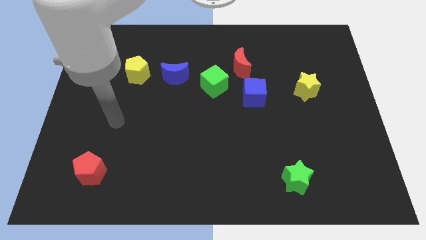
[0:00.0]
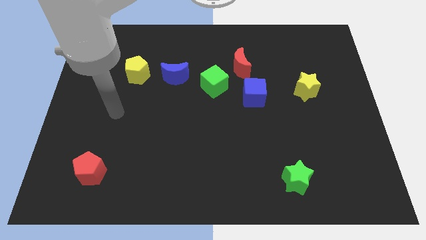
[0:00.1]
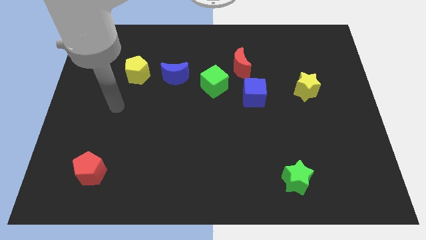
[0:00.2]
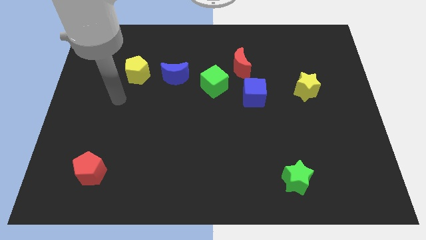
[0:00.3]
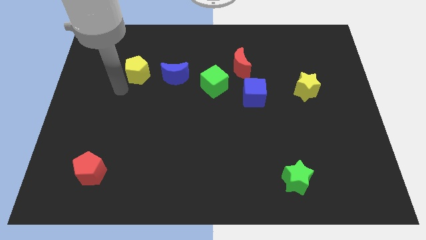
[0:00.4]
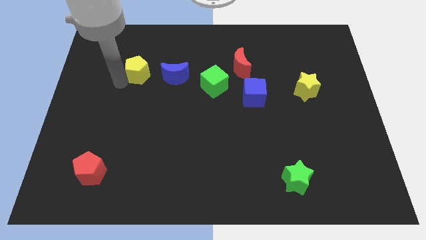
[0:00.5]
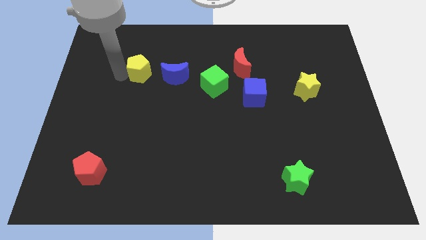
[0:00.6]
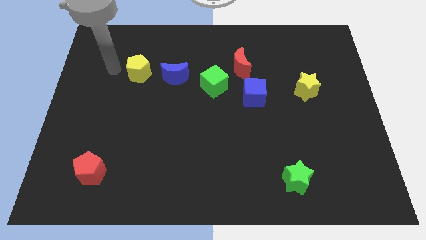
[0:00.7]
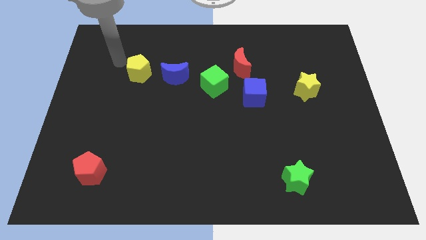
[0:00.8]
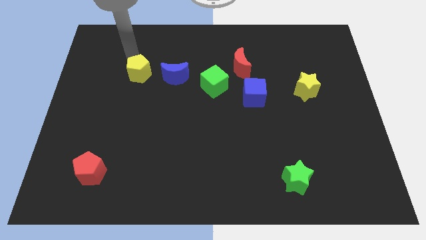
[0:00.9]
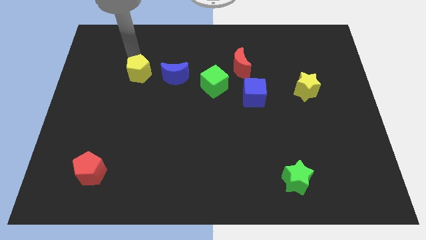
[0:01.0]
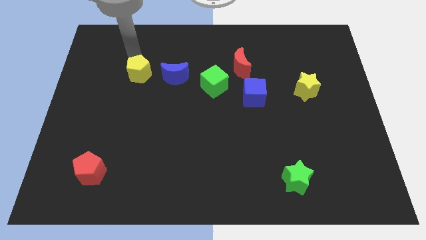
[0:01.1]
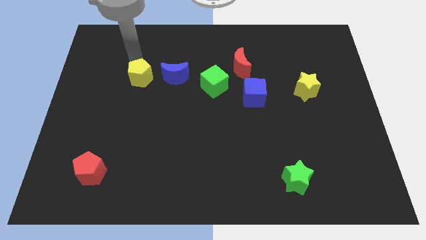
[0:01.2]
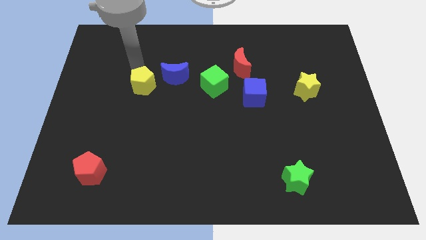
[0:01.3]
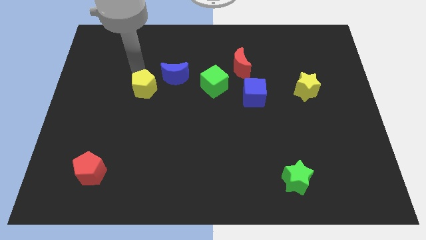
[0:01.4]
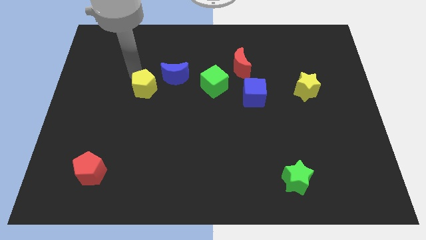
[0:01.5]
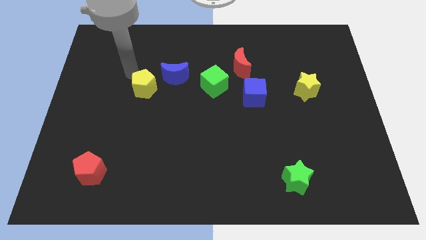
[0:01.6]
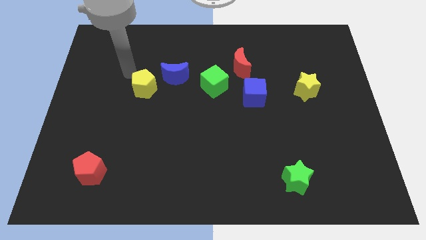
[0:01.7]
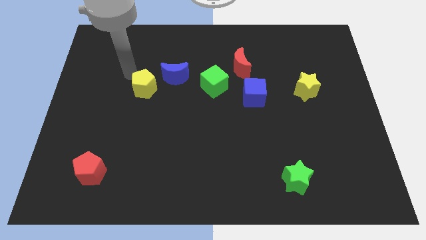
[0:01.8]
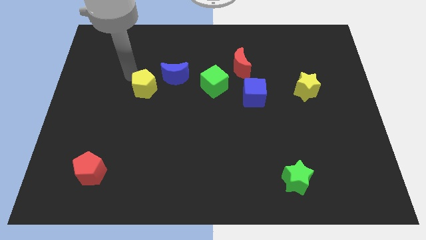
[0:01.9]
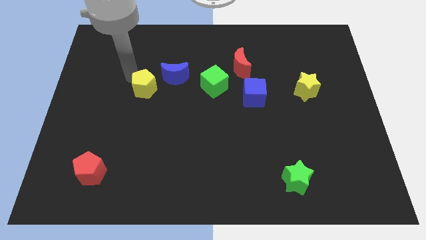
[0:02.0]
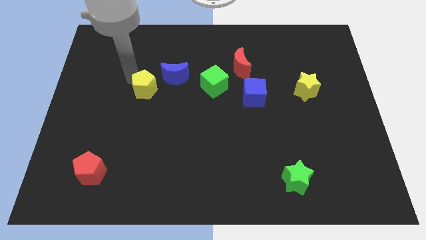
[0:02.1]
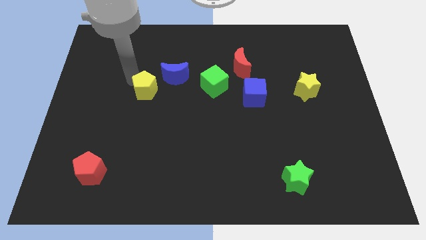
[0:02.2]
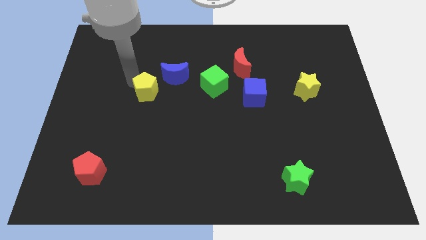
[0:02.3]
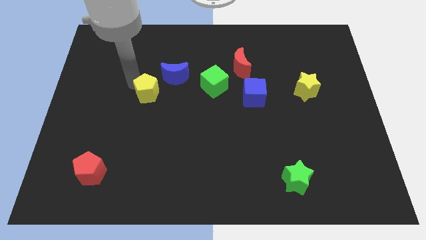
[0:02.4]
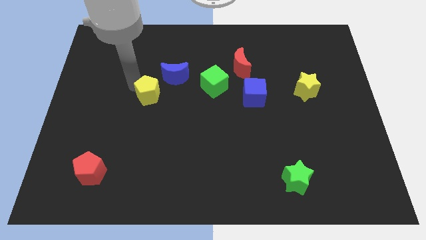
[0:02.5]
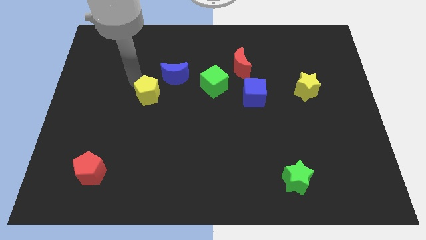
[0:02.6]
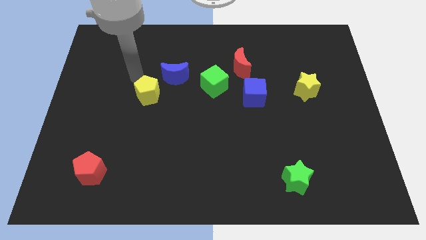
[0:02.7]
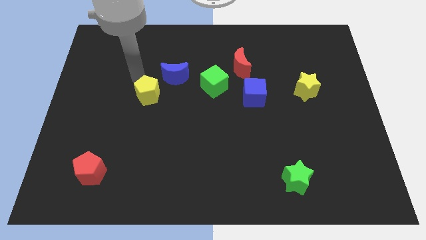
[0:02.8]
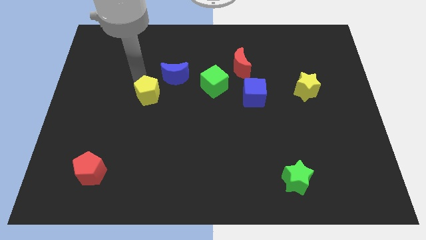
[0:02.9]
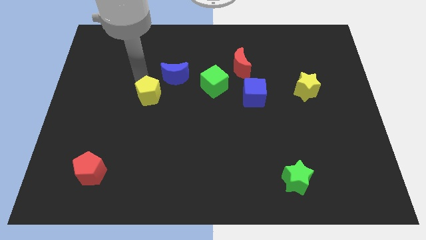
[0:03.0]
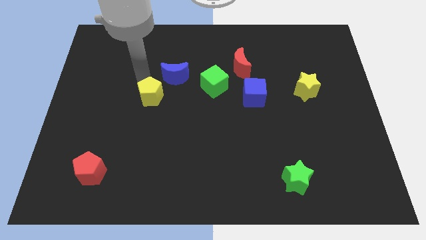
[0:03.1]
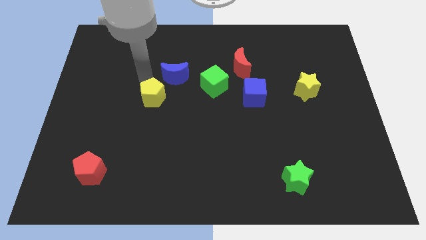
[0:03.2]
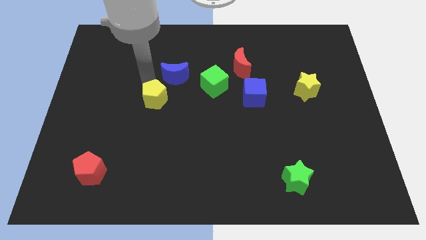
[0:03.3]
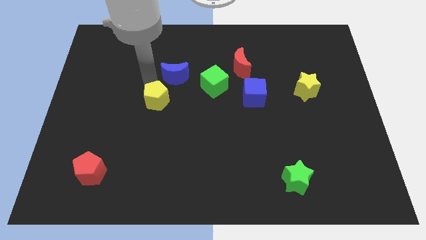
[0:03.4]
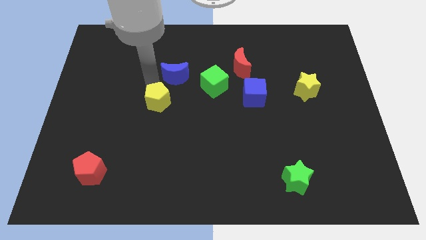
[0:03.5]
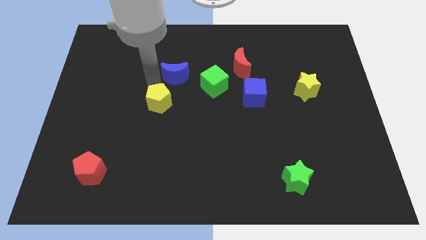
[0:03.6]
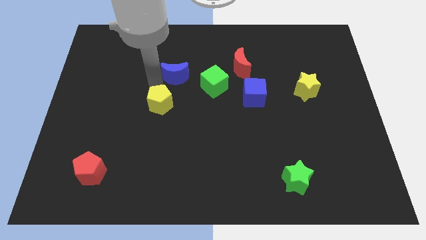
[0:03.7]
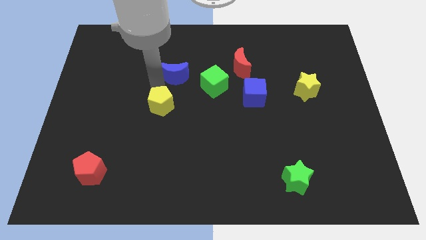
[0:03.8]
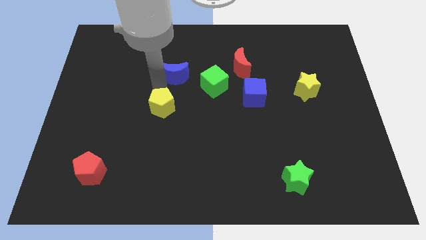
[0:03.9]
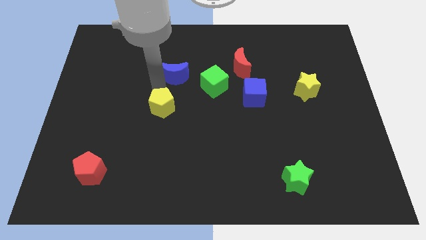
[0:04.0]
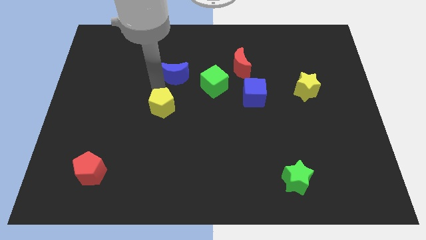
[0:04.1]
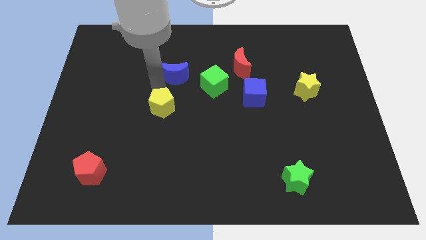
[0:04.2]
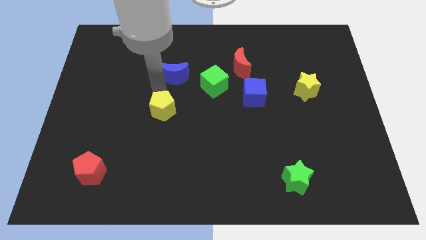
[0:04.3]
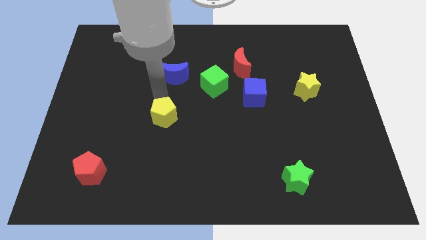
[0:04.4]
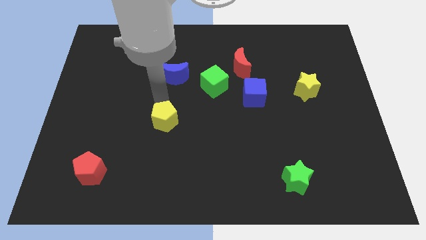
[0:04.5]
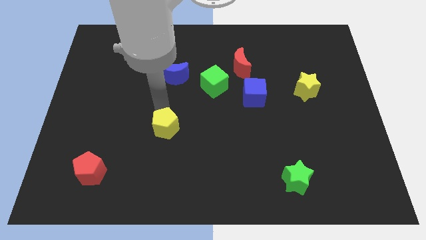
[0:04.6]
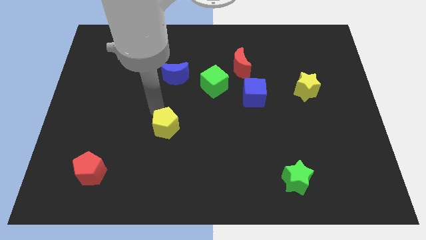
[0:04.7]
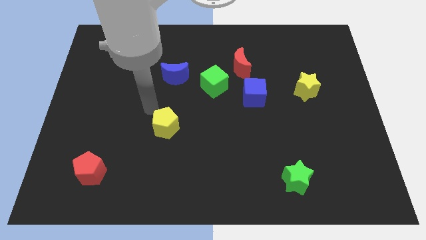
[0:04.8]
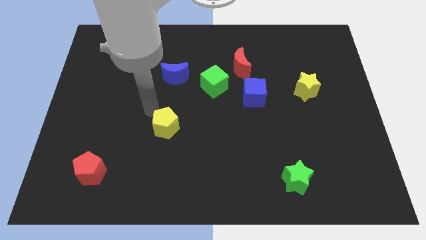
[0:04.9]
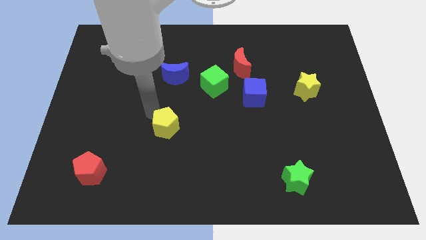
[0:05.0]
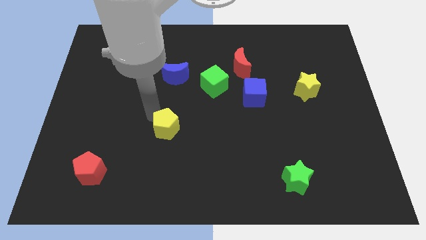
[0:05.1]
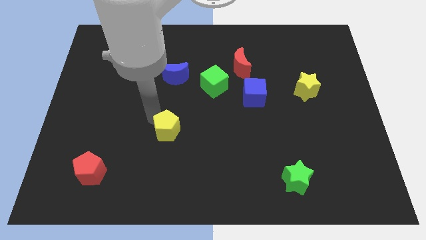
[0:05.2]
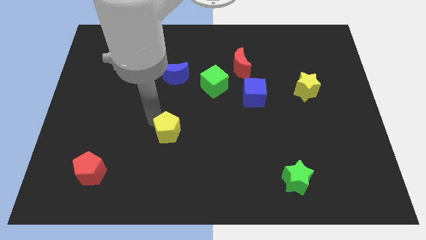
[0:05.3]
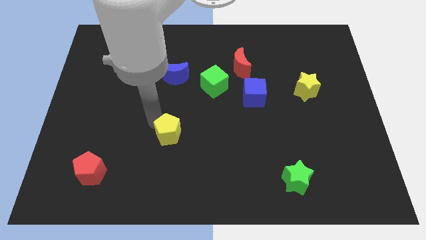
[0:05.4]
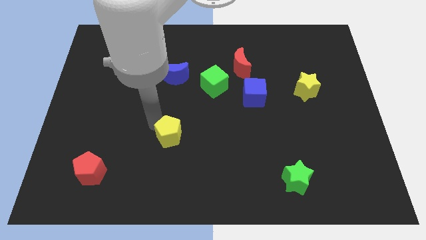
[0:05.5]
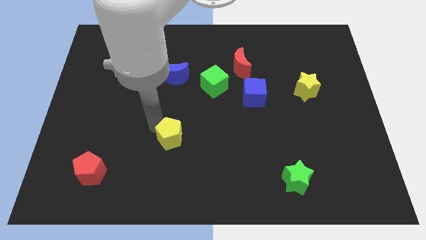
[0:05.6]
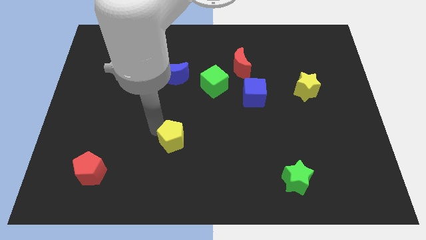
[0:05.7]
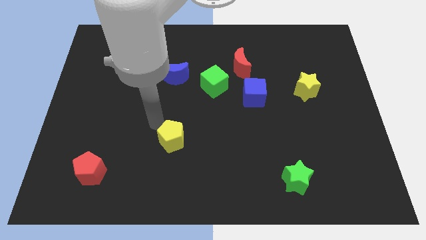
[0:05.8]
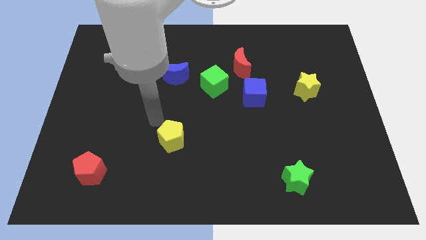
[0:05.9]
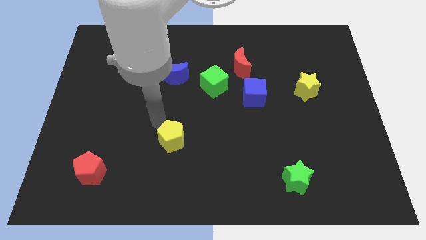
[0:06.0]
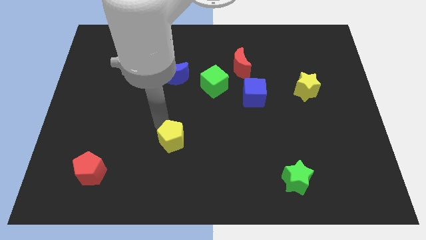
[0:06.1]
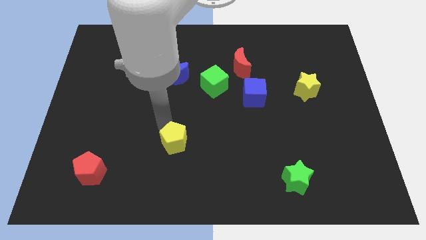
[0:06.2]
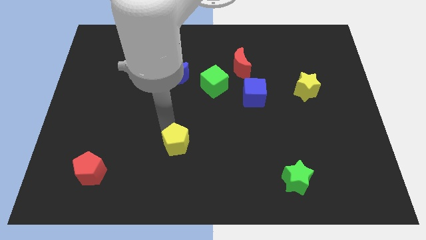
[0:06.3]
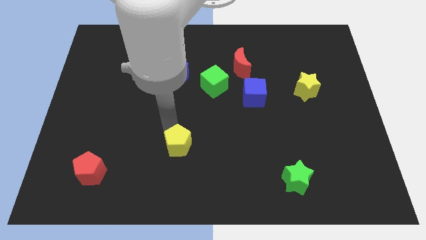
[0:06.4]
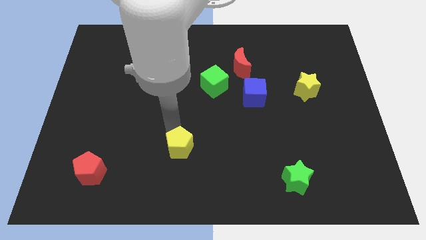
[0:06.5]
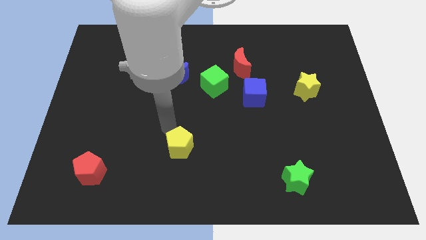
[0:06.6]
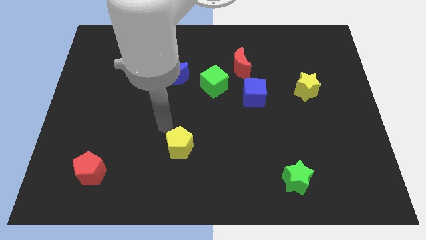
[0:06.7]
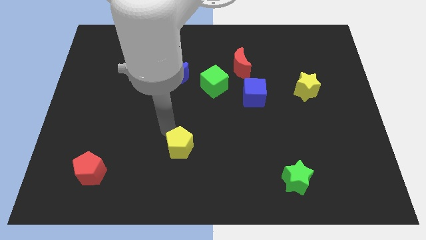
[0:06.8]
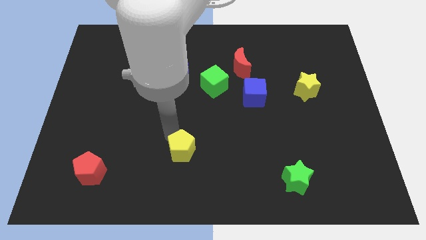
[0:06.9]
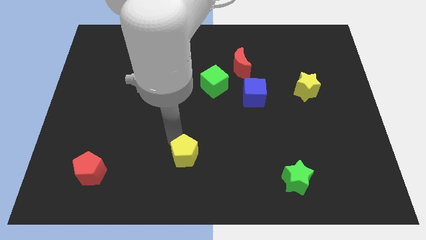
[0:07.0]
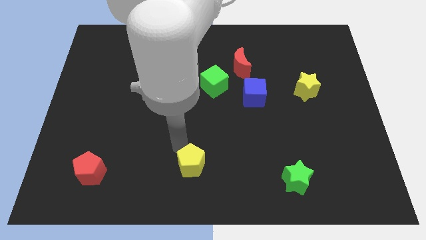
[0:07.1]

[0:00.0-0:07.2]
slide the yellow pentagon to the bottom
